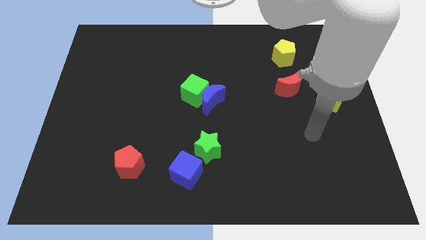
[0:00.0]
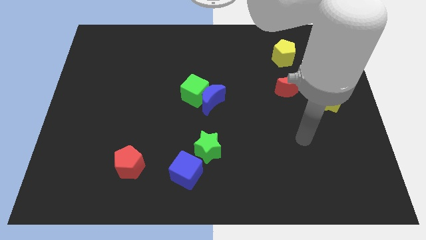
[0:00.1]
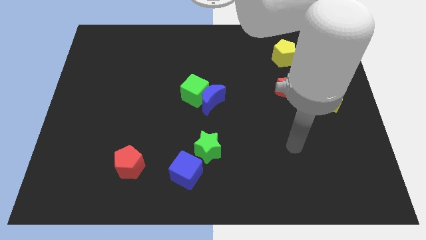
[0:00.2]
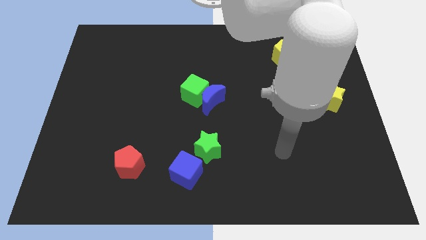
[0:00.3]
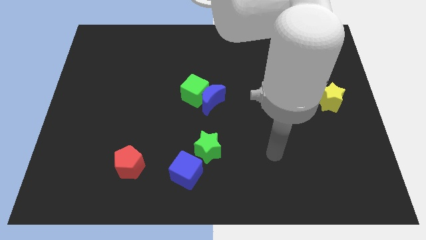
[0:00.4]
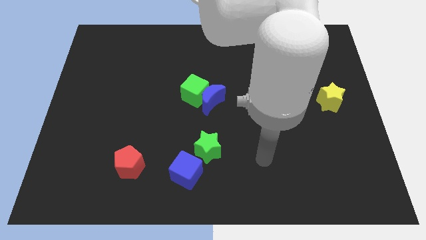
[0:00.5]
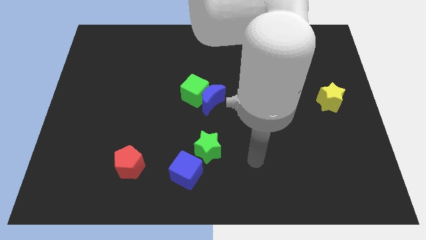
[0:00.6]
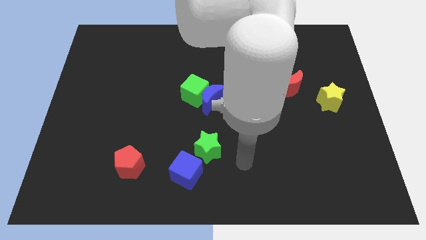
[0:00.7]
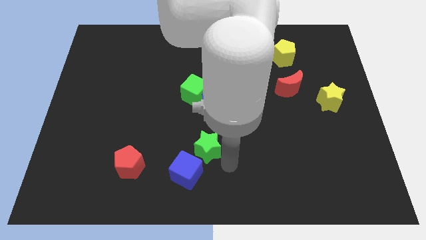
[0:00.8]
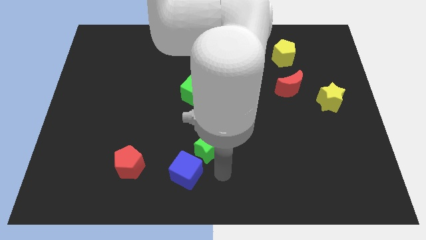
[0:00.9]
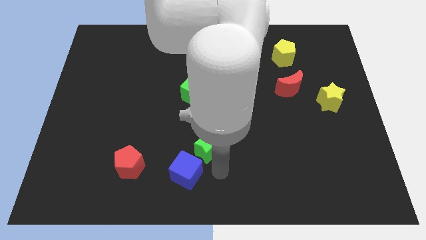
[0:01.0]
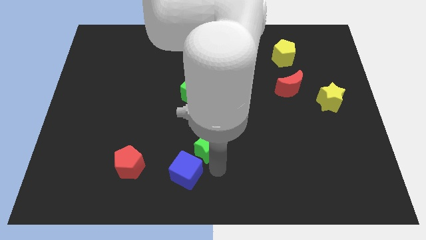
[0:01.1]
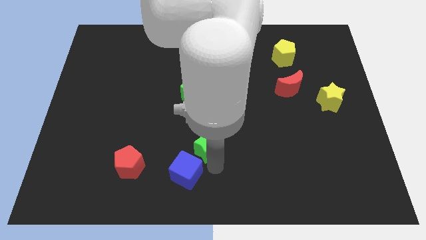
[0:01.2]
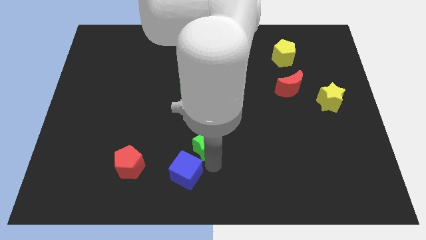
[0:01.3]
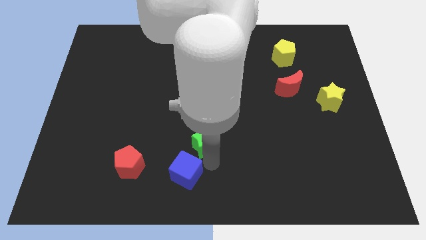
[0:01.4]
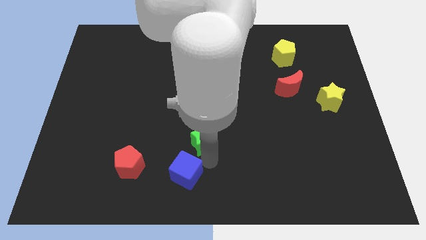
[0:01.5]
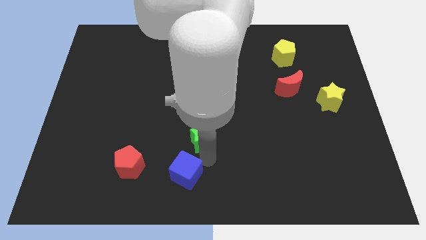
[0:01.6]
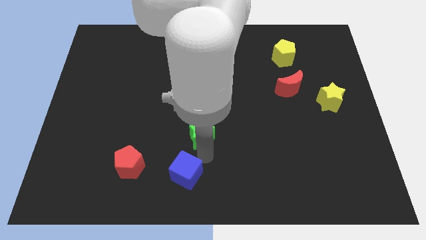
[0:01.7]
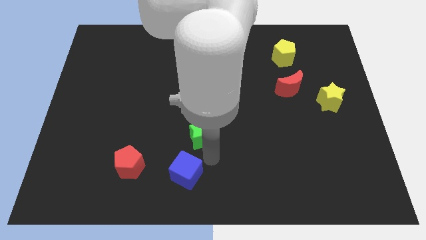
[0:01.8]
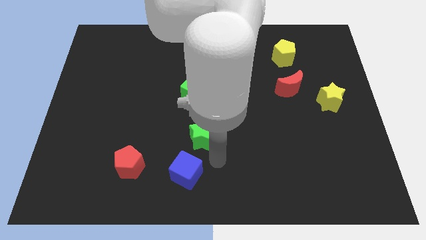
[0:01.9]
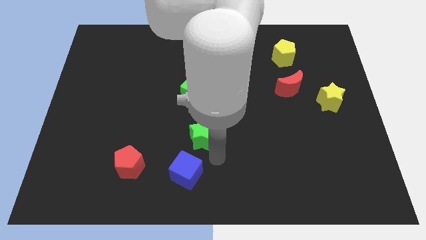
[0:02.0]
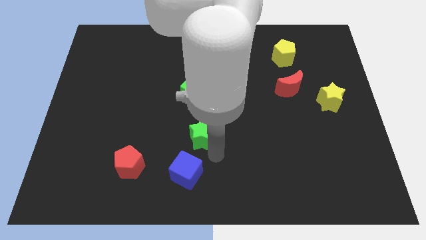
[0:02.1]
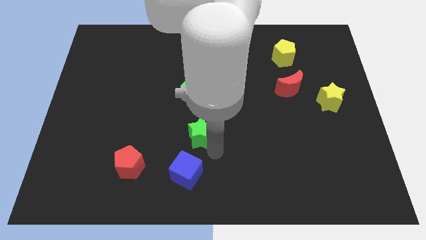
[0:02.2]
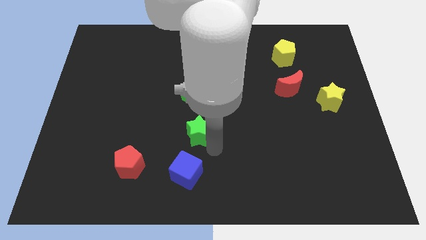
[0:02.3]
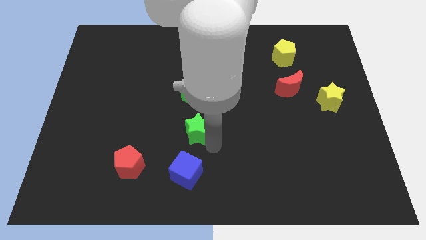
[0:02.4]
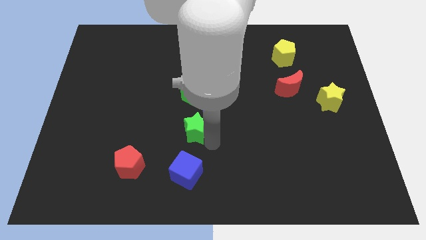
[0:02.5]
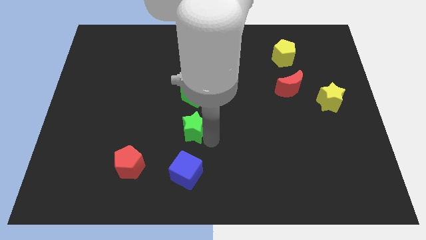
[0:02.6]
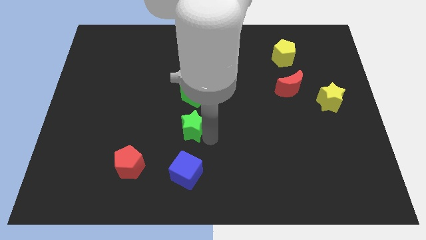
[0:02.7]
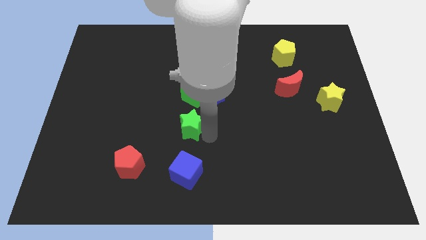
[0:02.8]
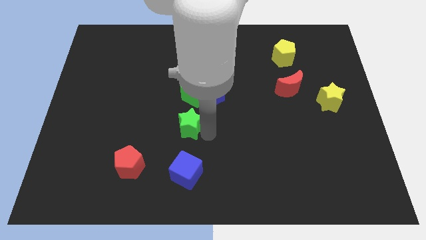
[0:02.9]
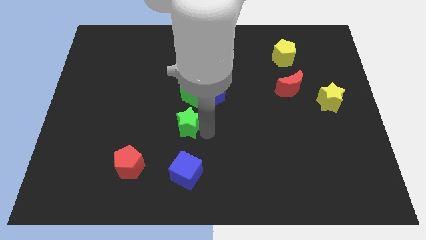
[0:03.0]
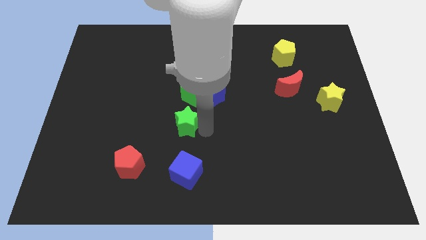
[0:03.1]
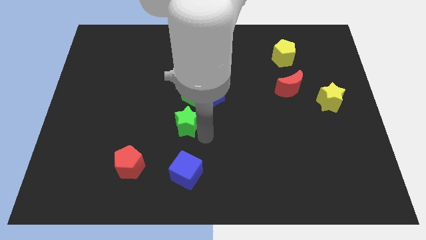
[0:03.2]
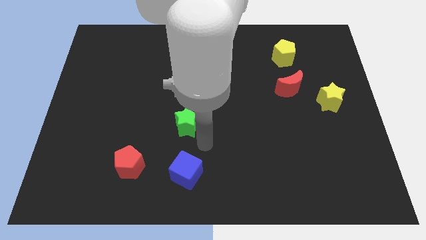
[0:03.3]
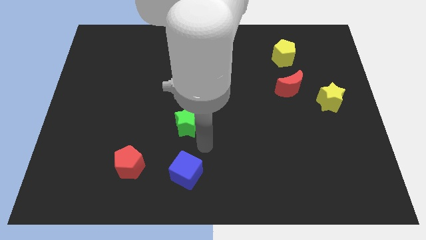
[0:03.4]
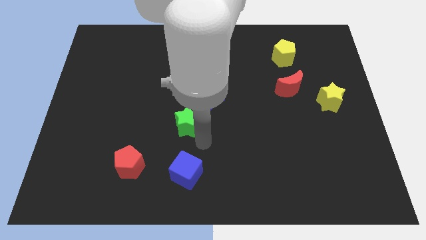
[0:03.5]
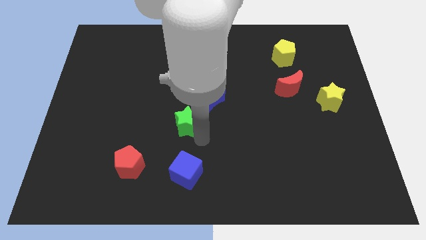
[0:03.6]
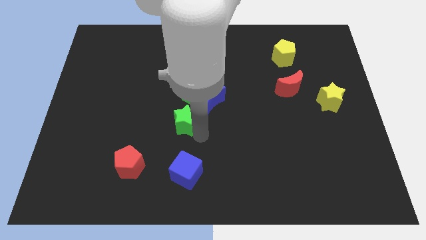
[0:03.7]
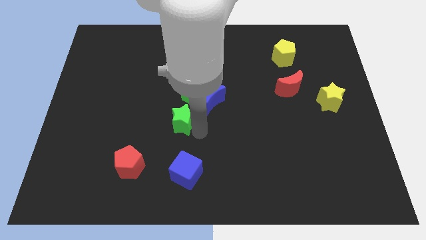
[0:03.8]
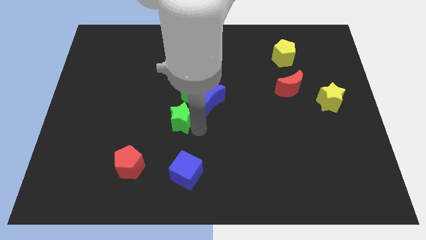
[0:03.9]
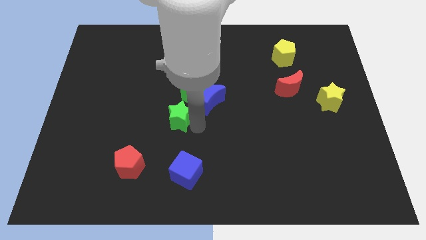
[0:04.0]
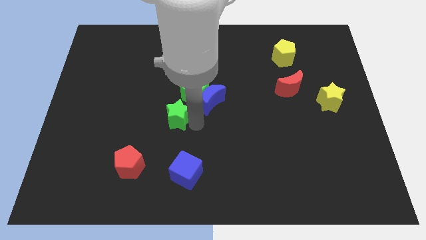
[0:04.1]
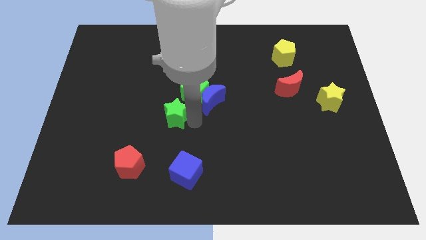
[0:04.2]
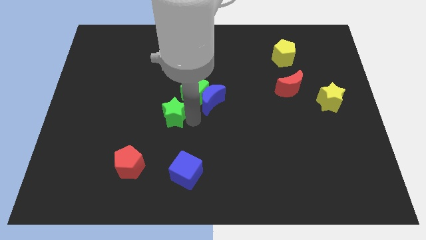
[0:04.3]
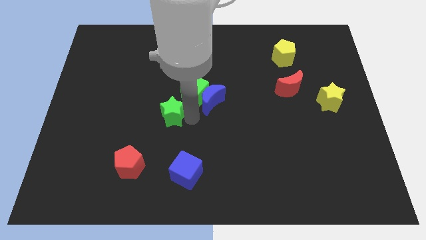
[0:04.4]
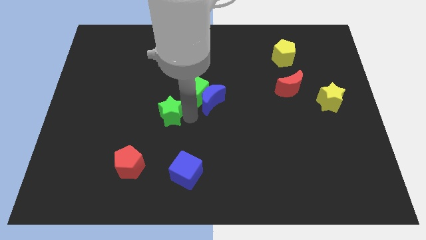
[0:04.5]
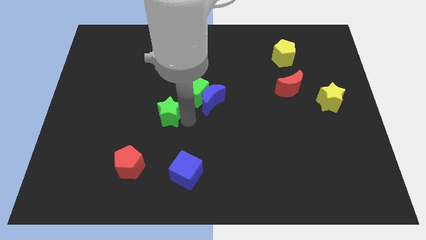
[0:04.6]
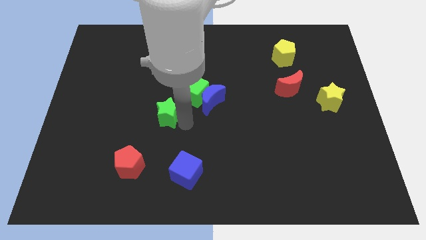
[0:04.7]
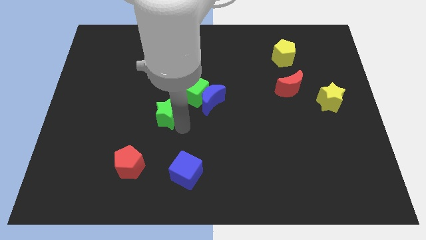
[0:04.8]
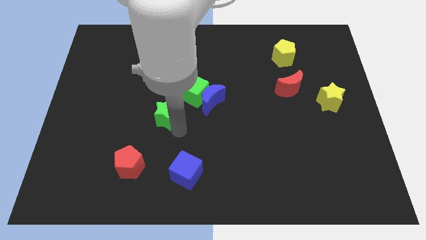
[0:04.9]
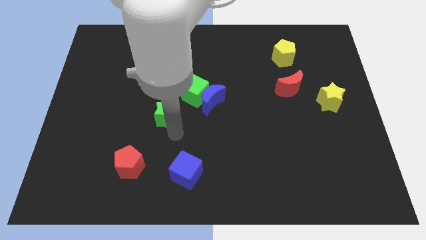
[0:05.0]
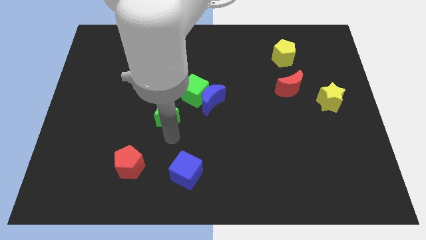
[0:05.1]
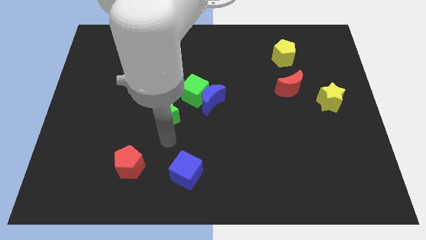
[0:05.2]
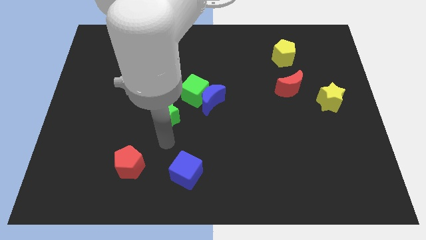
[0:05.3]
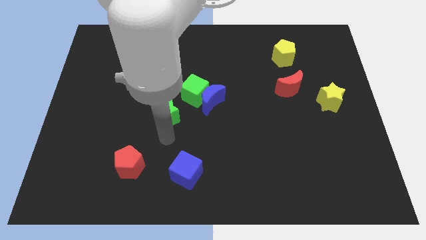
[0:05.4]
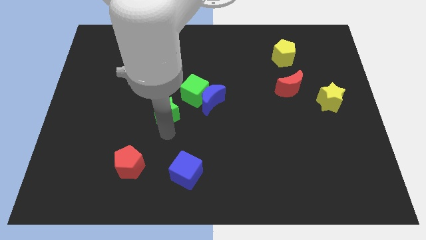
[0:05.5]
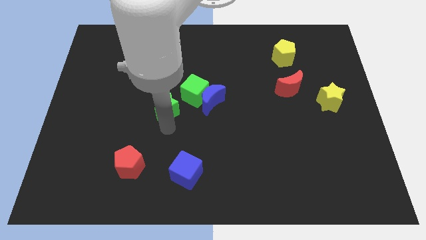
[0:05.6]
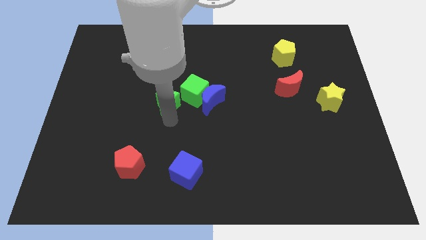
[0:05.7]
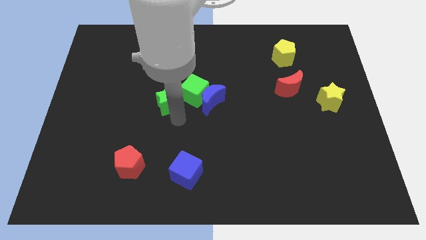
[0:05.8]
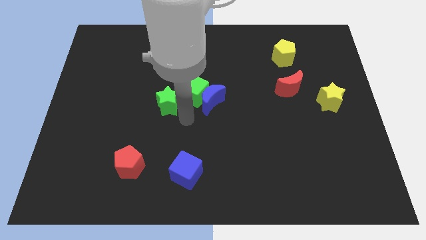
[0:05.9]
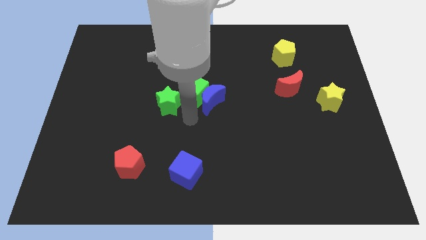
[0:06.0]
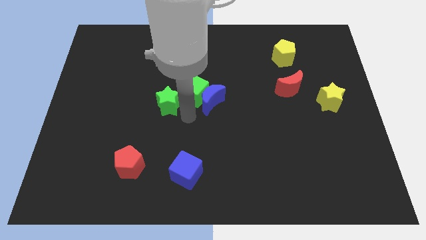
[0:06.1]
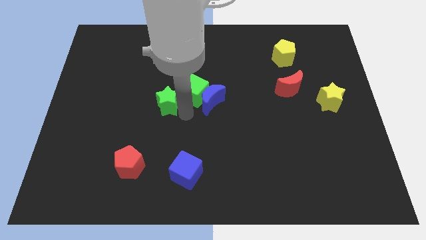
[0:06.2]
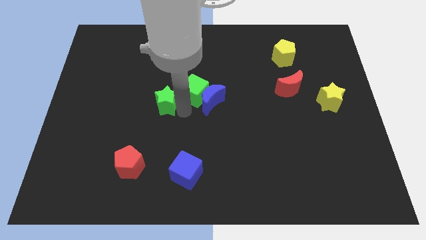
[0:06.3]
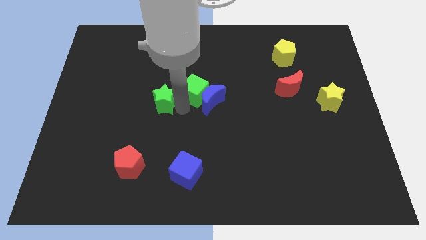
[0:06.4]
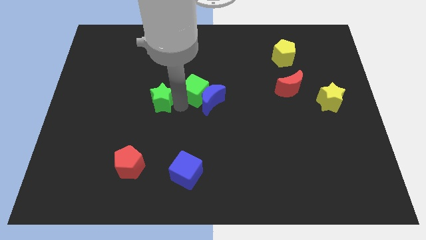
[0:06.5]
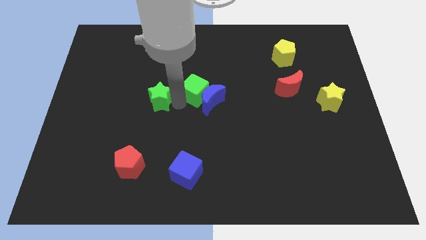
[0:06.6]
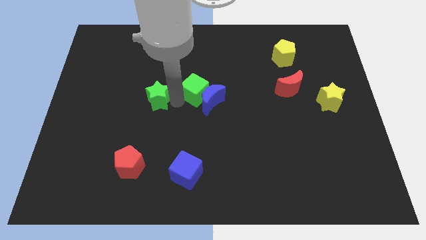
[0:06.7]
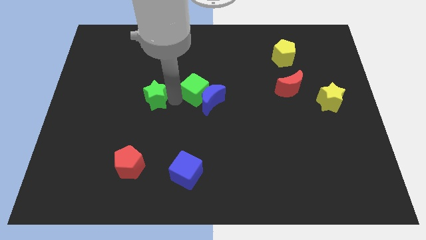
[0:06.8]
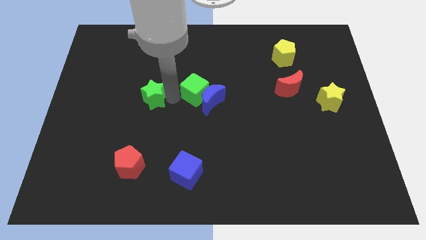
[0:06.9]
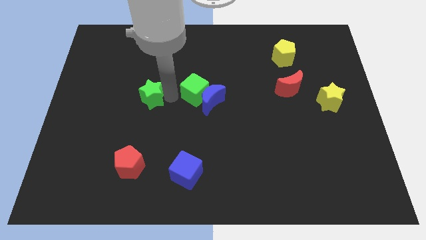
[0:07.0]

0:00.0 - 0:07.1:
push the green star upwards and then to the left

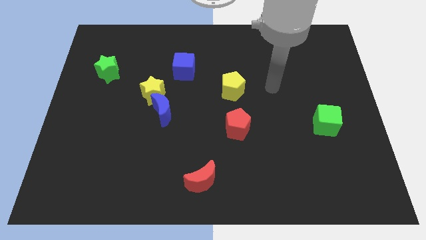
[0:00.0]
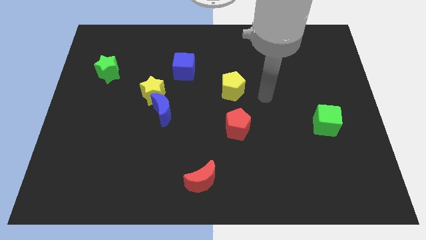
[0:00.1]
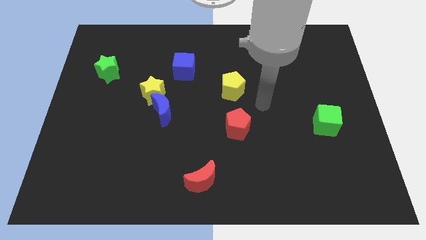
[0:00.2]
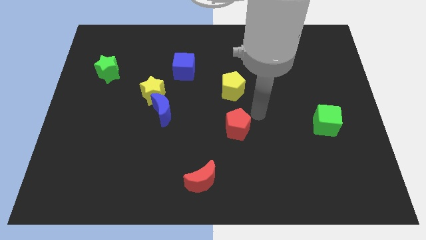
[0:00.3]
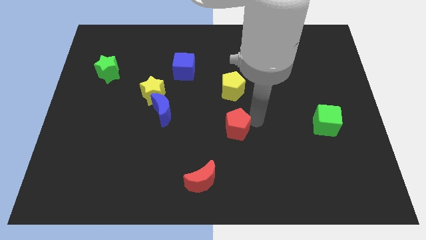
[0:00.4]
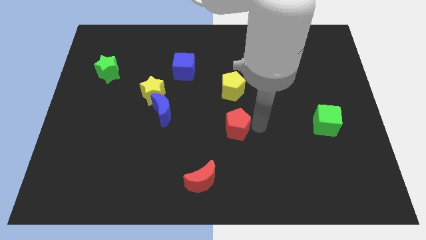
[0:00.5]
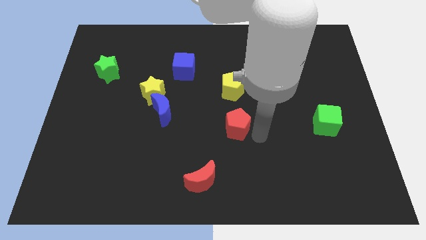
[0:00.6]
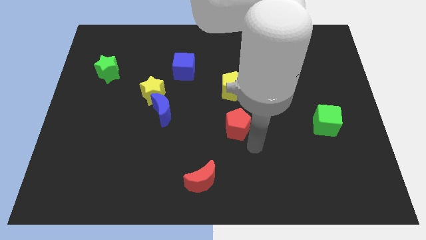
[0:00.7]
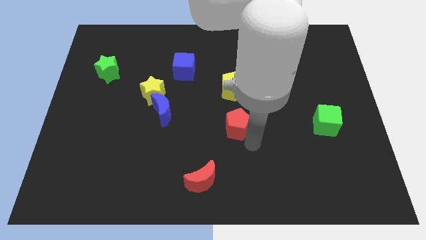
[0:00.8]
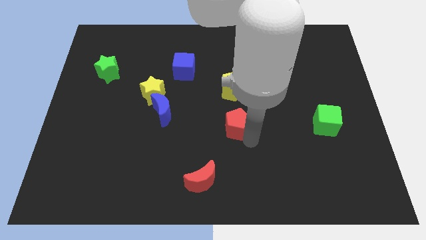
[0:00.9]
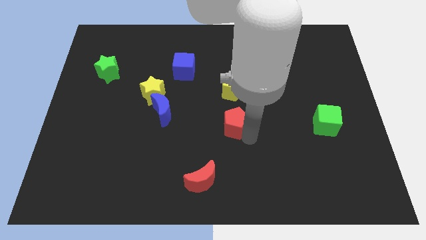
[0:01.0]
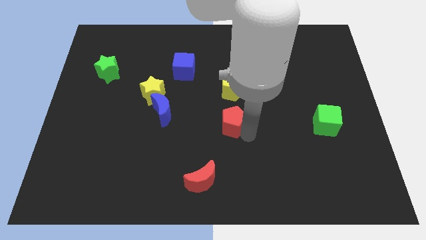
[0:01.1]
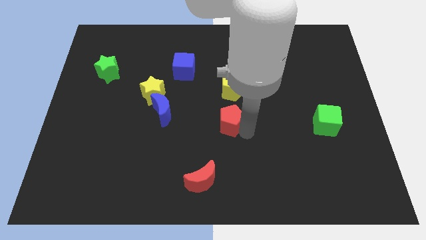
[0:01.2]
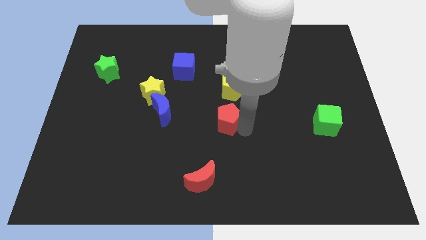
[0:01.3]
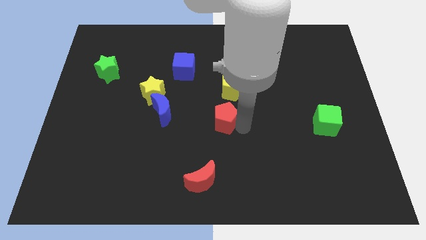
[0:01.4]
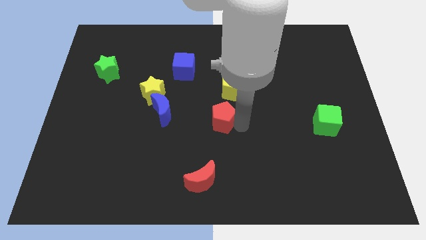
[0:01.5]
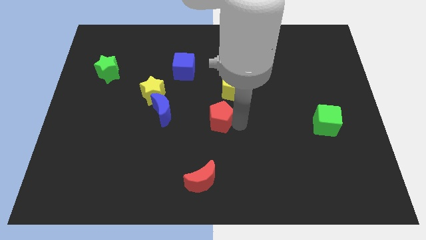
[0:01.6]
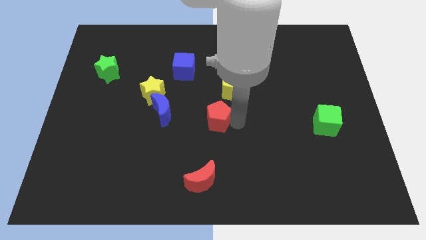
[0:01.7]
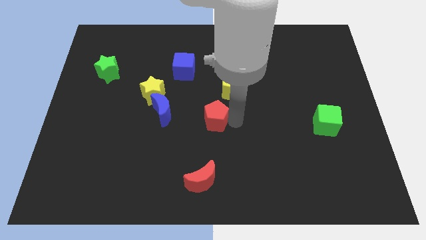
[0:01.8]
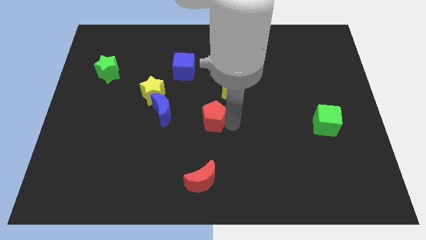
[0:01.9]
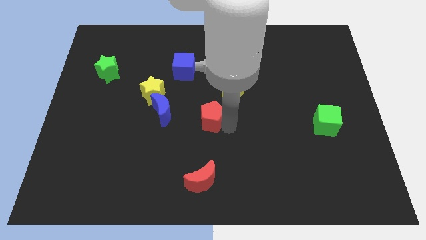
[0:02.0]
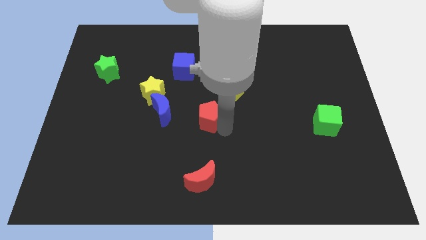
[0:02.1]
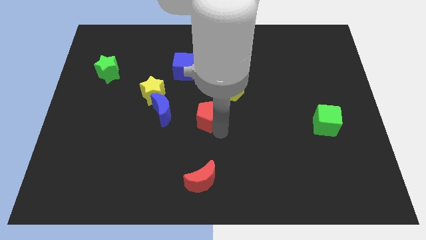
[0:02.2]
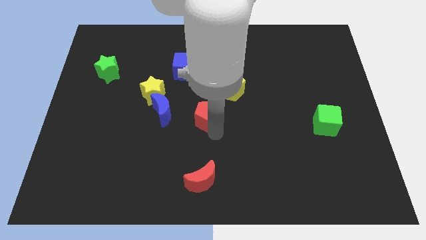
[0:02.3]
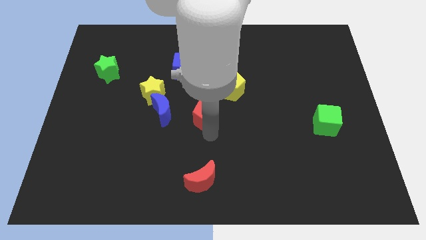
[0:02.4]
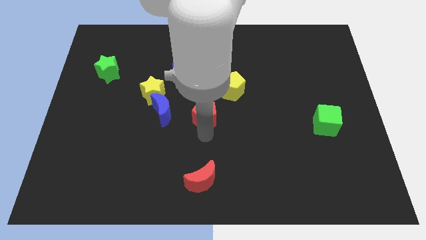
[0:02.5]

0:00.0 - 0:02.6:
slide the red pentagon upwards and then left a little bit
